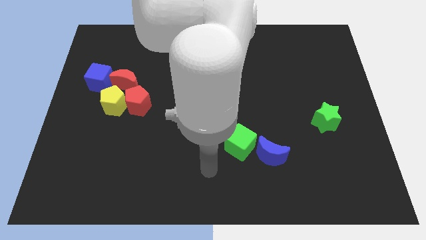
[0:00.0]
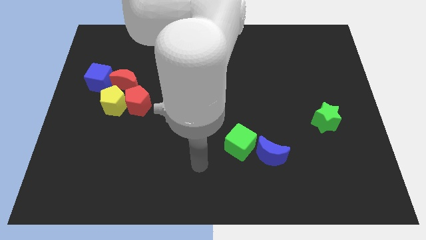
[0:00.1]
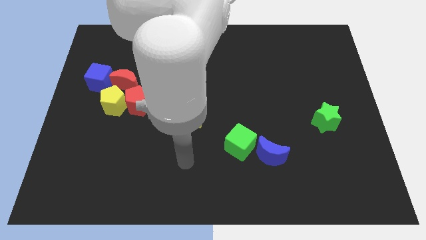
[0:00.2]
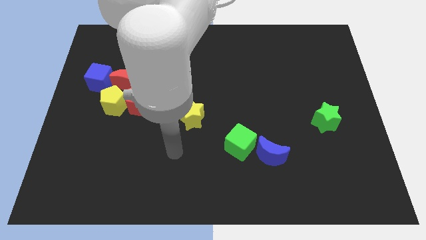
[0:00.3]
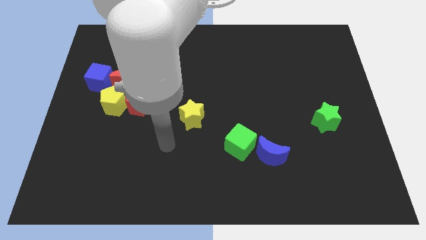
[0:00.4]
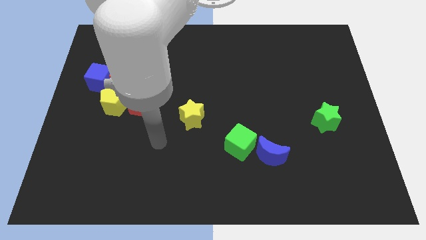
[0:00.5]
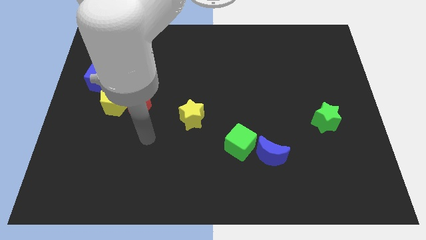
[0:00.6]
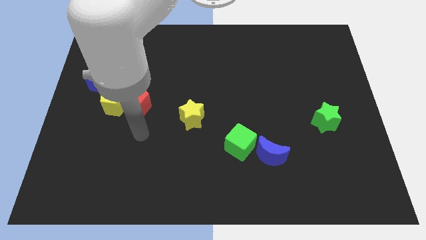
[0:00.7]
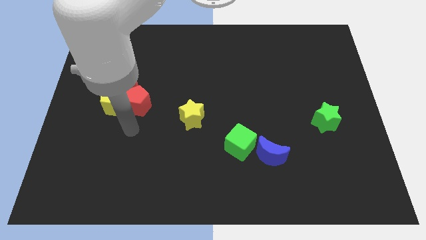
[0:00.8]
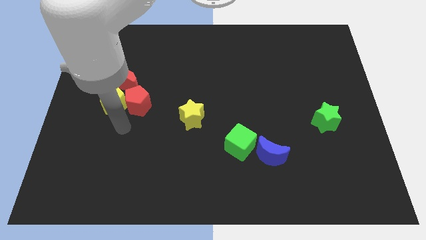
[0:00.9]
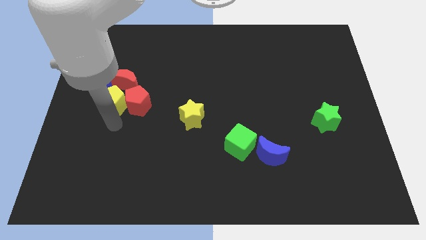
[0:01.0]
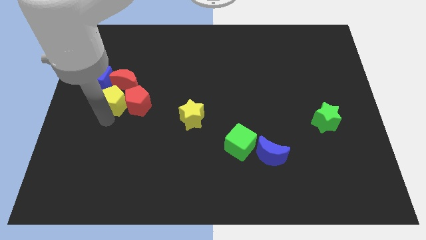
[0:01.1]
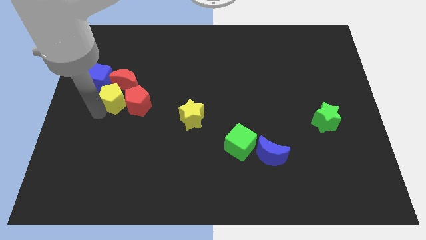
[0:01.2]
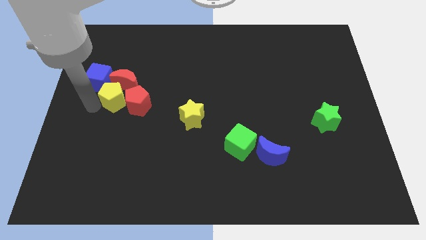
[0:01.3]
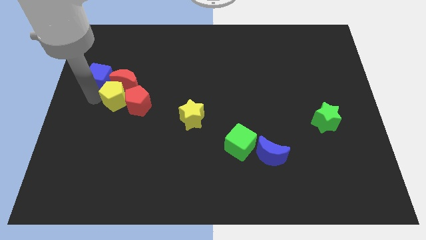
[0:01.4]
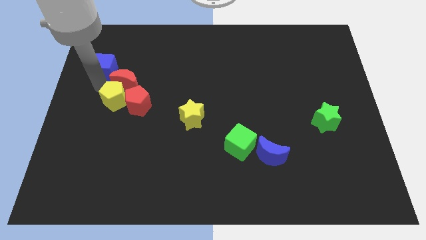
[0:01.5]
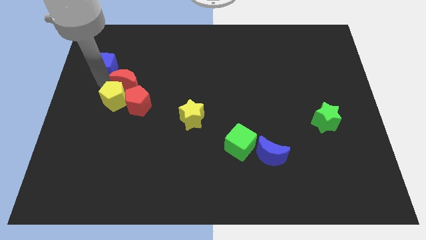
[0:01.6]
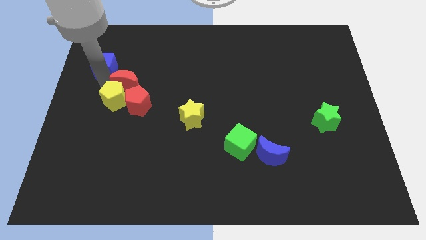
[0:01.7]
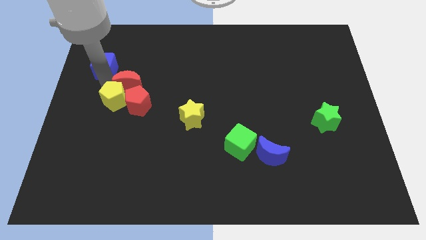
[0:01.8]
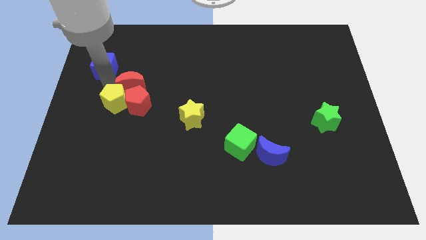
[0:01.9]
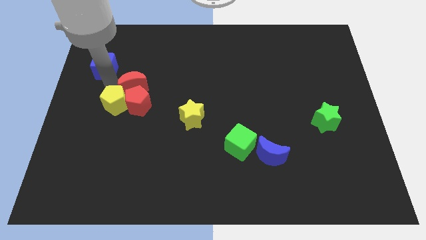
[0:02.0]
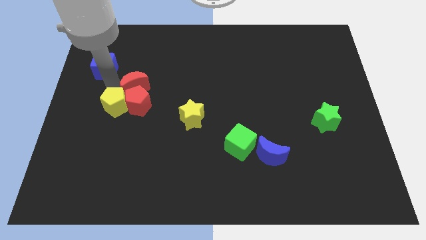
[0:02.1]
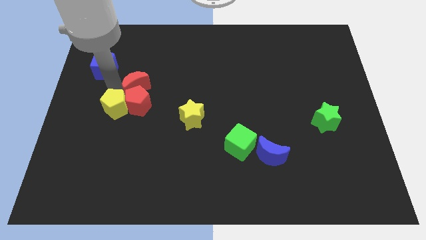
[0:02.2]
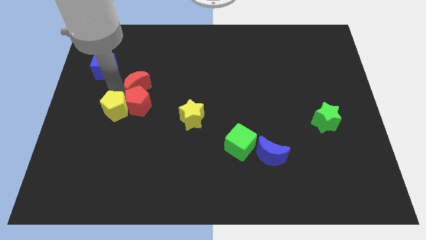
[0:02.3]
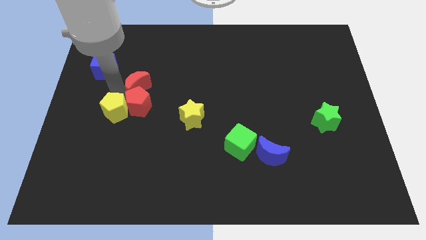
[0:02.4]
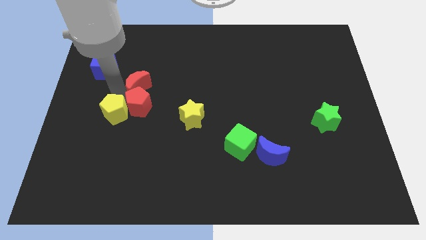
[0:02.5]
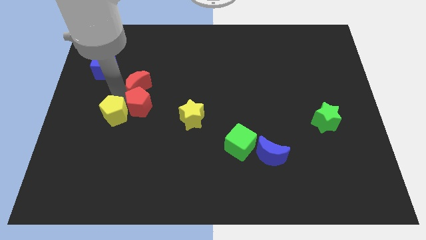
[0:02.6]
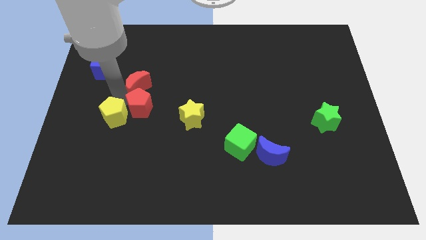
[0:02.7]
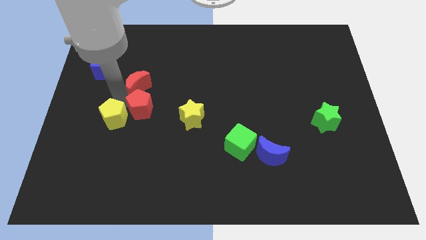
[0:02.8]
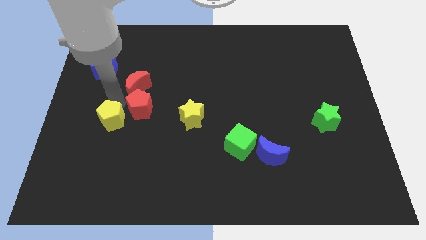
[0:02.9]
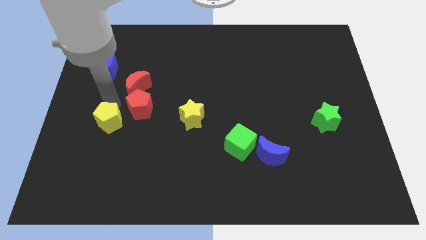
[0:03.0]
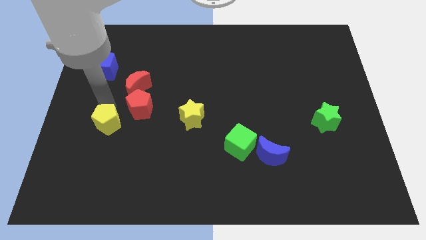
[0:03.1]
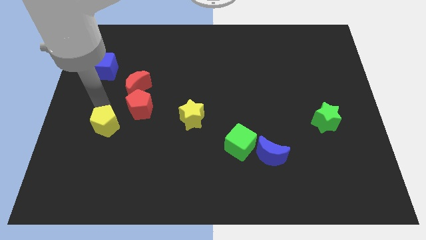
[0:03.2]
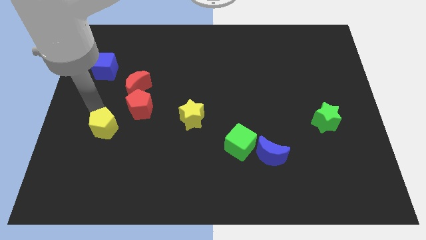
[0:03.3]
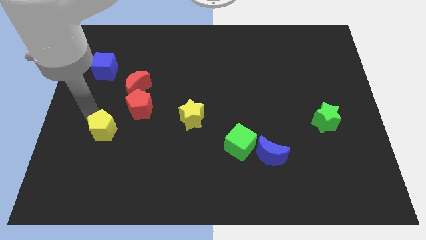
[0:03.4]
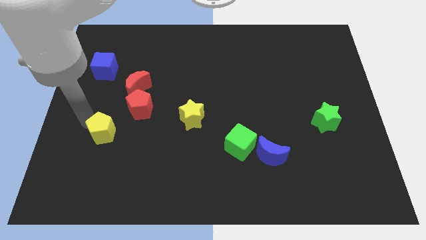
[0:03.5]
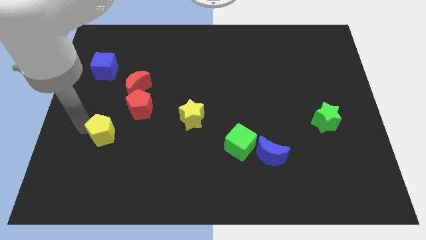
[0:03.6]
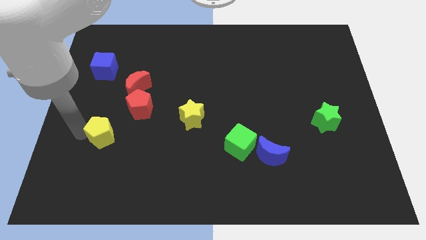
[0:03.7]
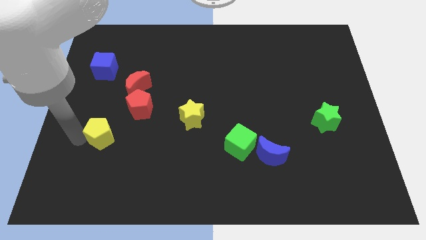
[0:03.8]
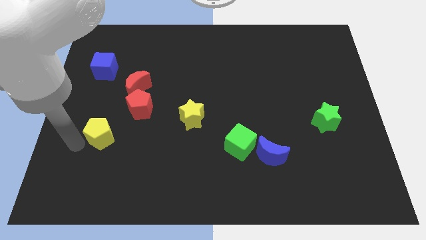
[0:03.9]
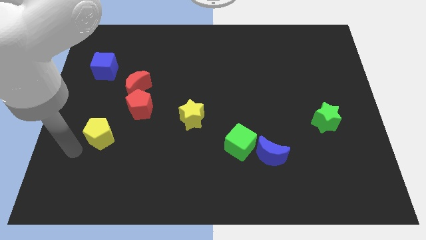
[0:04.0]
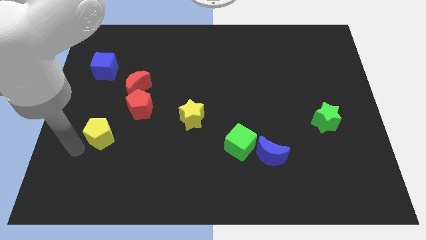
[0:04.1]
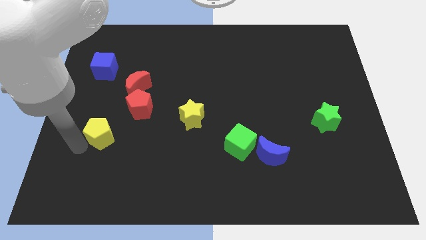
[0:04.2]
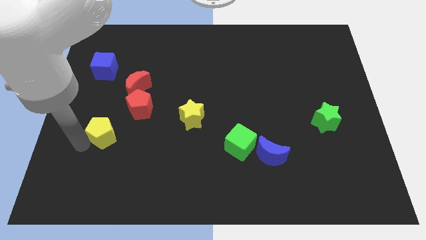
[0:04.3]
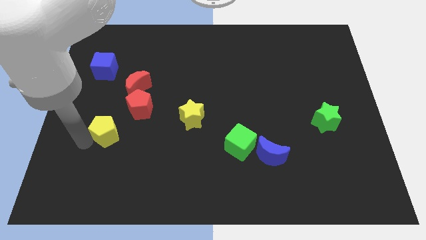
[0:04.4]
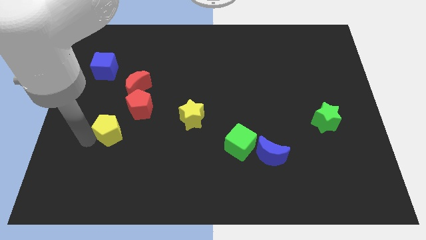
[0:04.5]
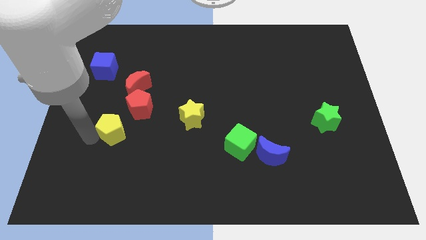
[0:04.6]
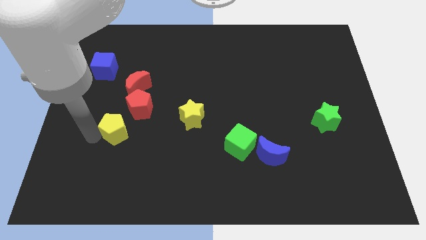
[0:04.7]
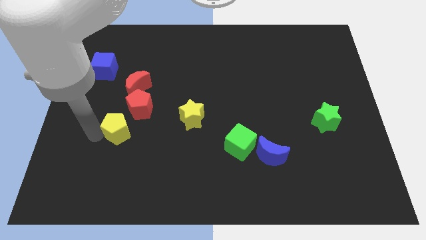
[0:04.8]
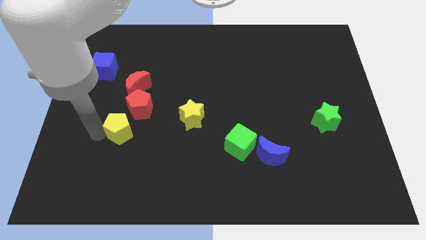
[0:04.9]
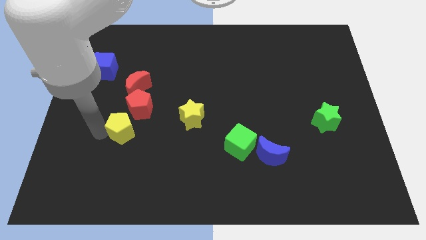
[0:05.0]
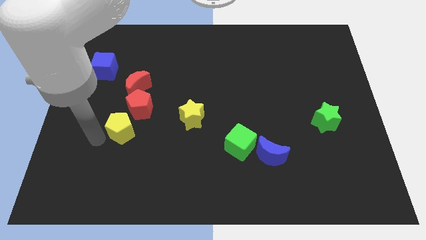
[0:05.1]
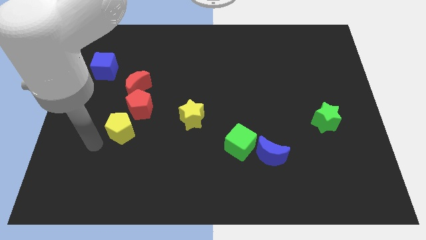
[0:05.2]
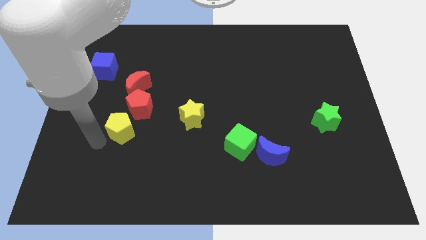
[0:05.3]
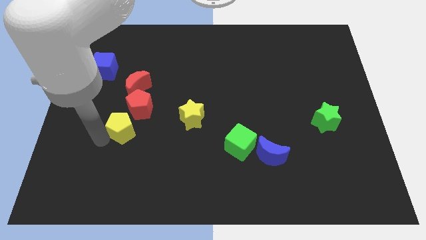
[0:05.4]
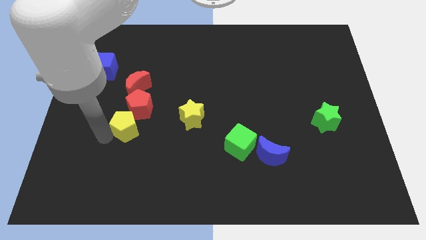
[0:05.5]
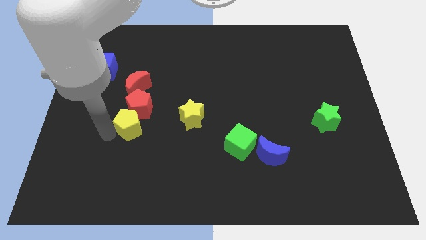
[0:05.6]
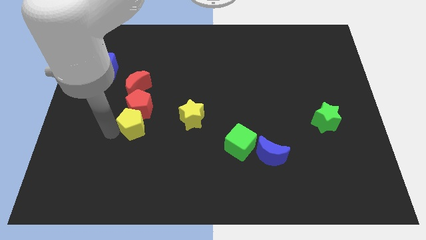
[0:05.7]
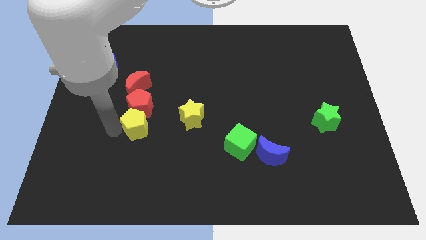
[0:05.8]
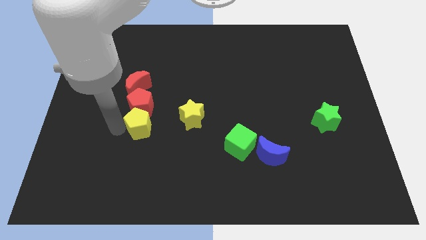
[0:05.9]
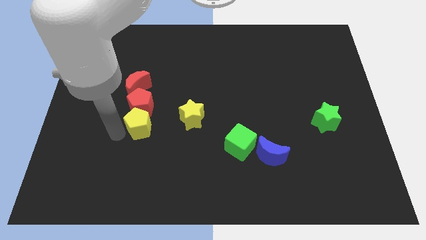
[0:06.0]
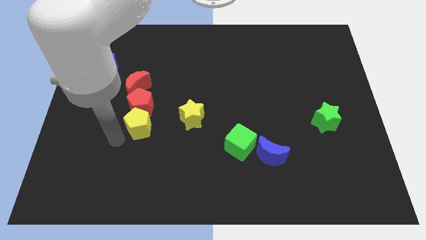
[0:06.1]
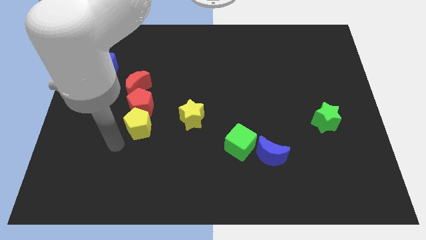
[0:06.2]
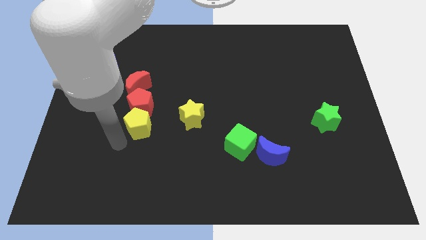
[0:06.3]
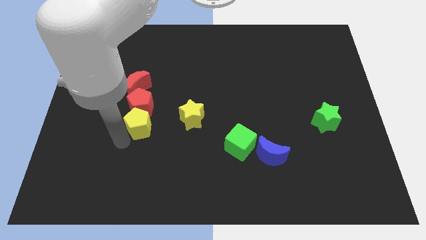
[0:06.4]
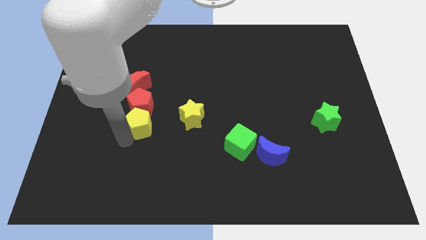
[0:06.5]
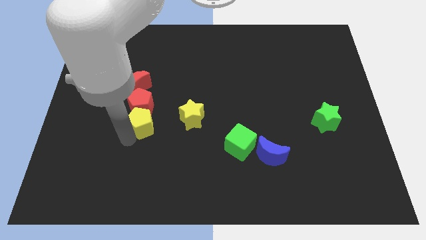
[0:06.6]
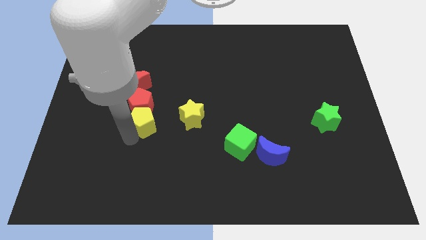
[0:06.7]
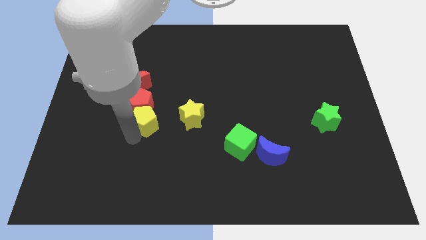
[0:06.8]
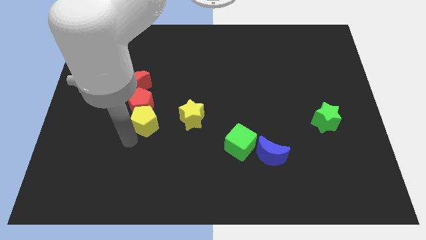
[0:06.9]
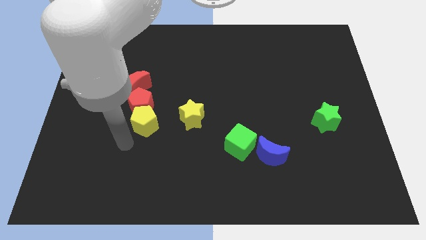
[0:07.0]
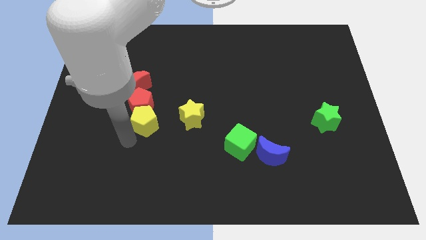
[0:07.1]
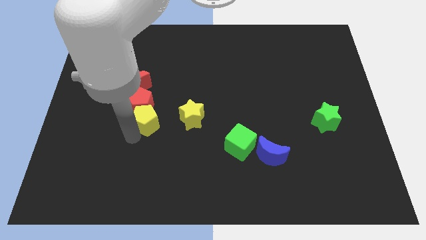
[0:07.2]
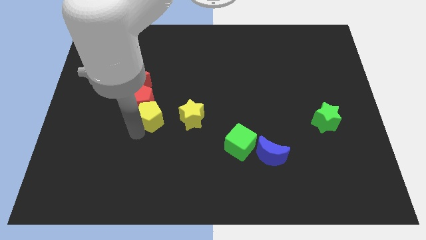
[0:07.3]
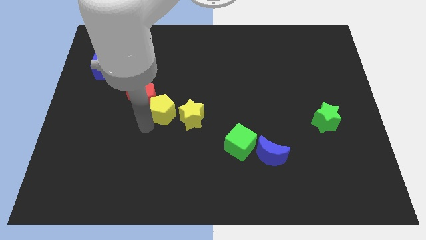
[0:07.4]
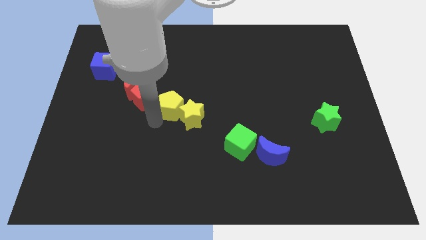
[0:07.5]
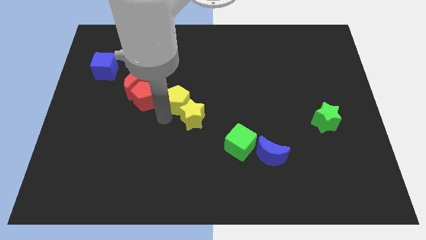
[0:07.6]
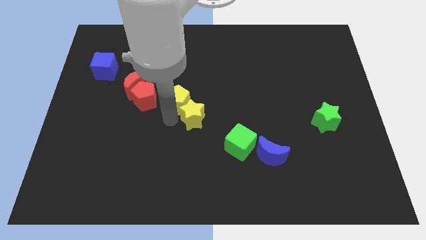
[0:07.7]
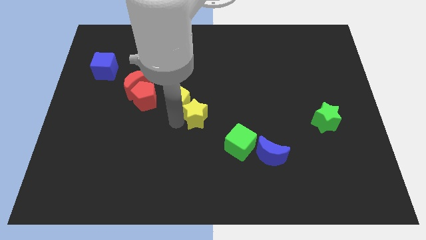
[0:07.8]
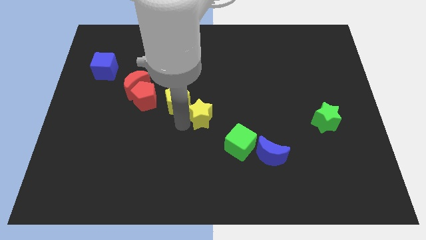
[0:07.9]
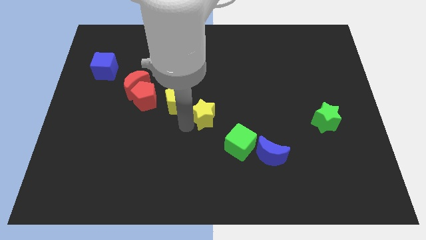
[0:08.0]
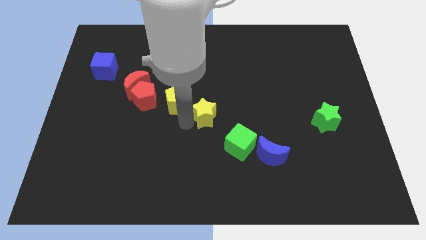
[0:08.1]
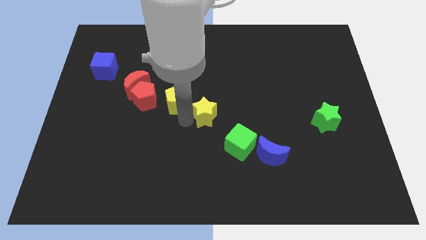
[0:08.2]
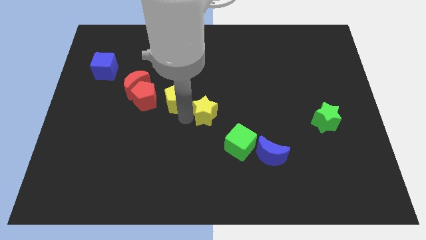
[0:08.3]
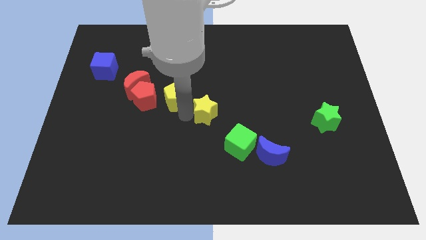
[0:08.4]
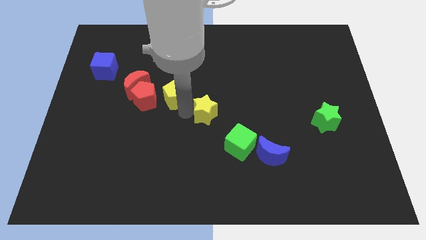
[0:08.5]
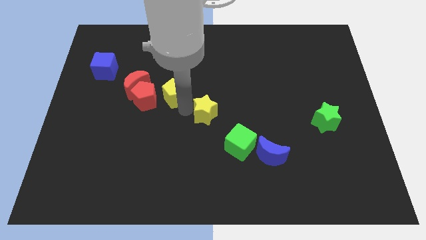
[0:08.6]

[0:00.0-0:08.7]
push the yellow pentagon to the top right side of the red pentagon

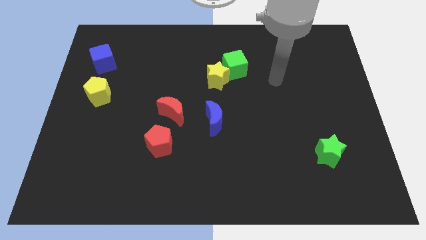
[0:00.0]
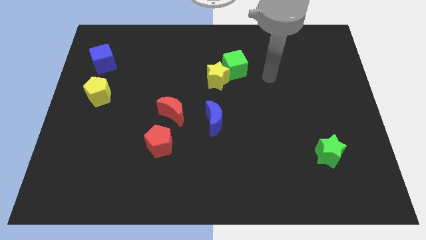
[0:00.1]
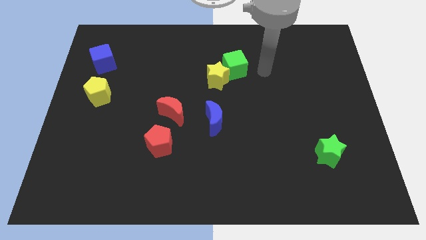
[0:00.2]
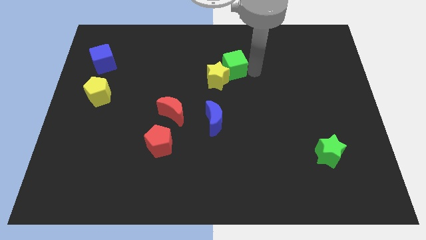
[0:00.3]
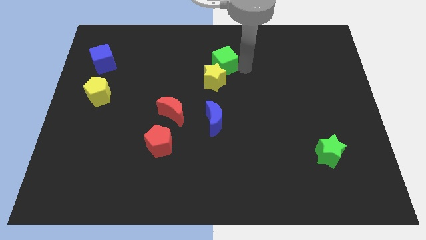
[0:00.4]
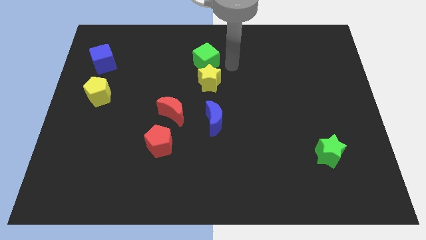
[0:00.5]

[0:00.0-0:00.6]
push the yellow star to the top right side of the red moon
